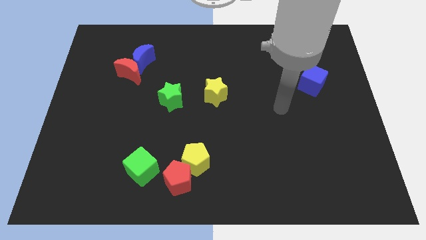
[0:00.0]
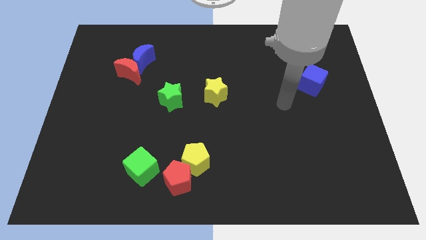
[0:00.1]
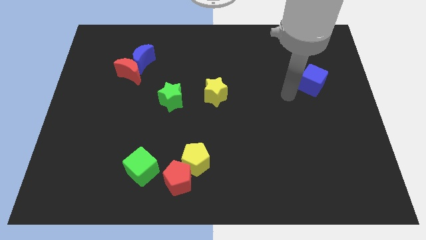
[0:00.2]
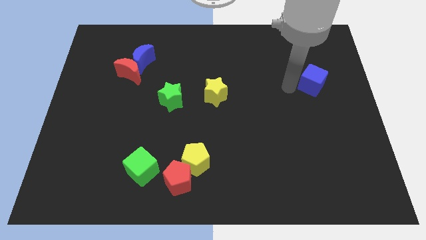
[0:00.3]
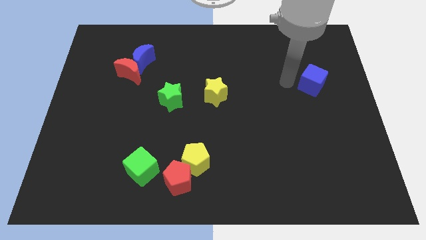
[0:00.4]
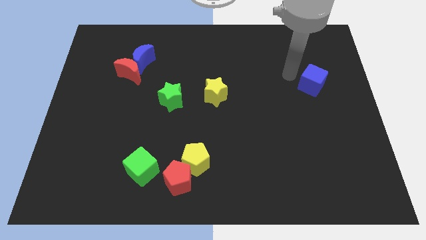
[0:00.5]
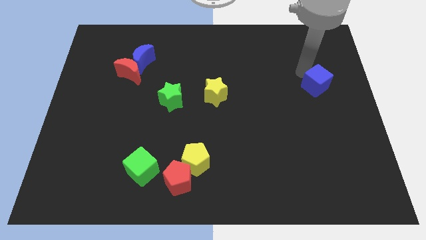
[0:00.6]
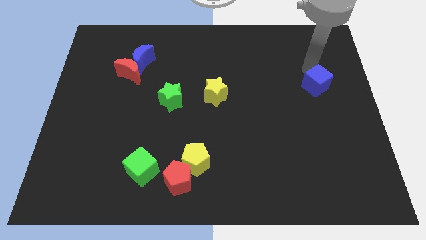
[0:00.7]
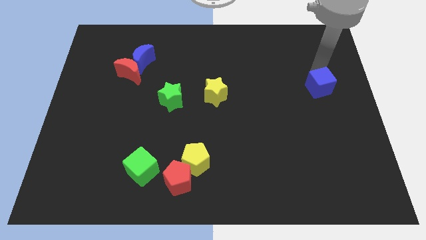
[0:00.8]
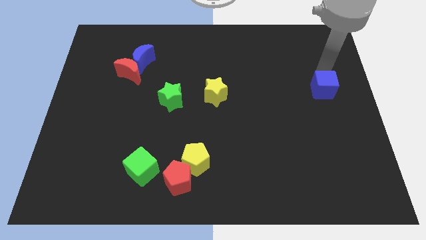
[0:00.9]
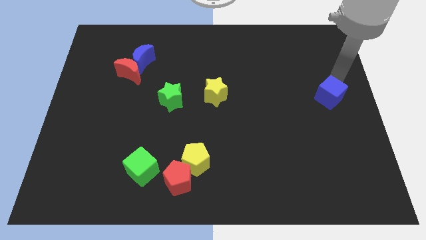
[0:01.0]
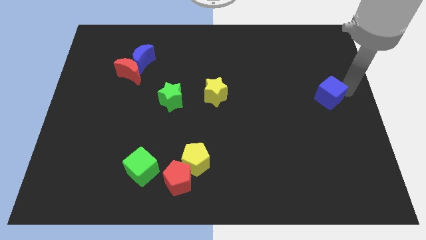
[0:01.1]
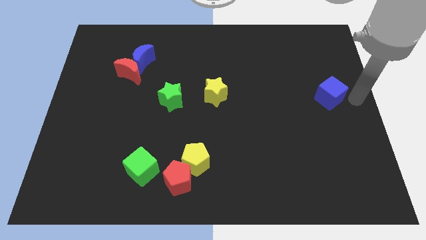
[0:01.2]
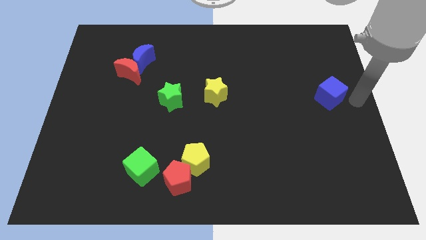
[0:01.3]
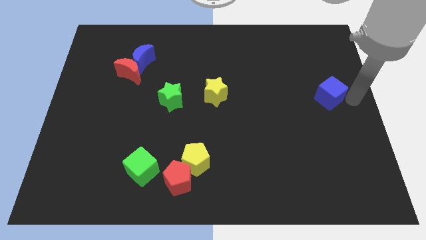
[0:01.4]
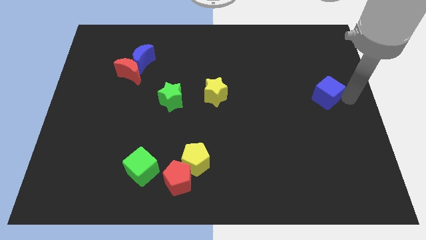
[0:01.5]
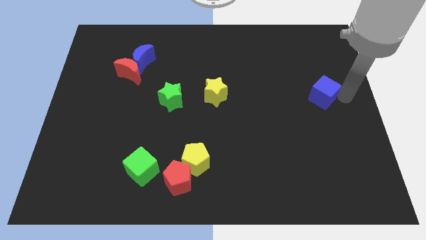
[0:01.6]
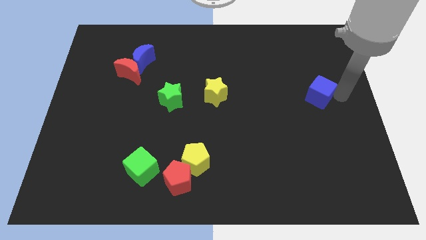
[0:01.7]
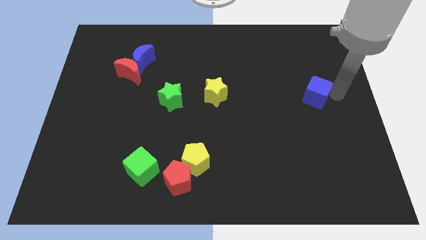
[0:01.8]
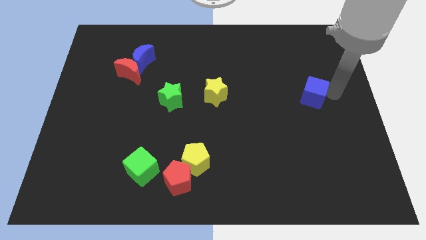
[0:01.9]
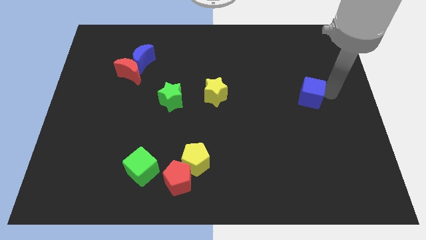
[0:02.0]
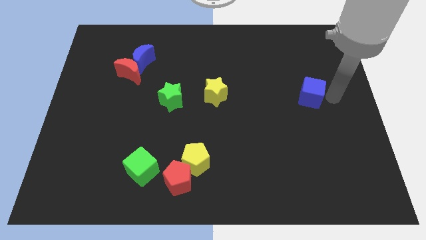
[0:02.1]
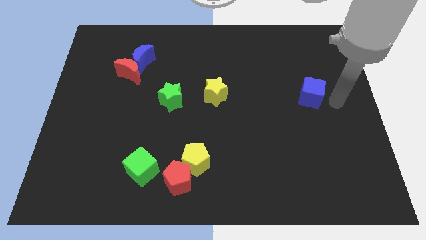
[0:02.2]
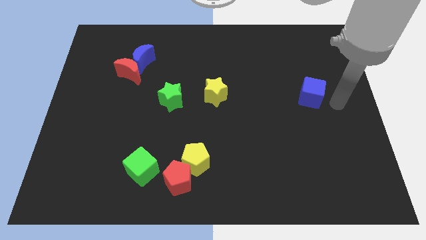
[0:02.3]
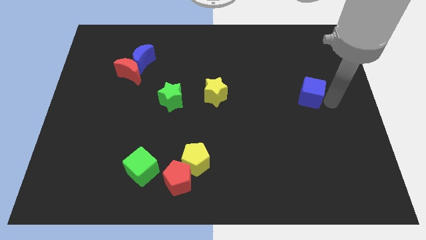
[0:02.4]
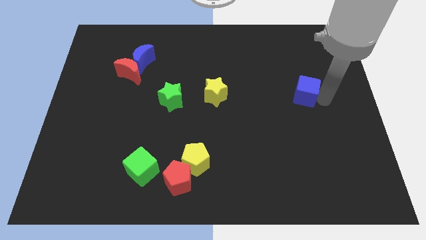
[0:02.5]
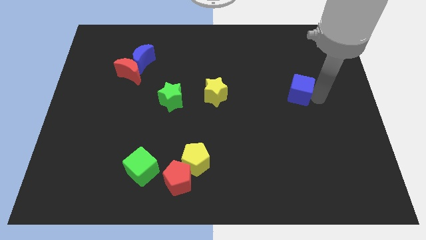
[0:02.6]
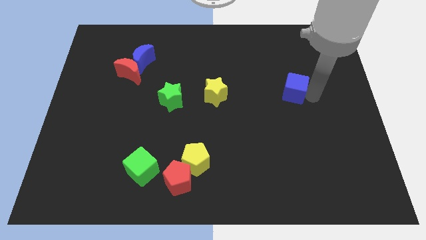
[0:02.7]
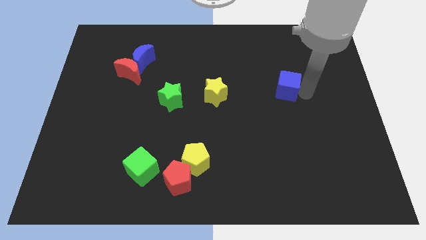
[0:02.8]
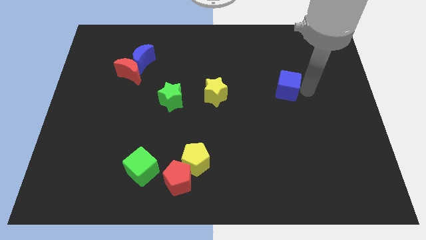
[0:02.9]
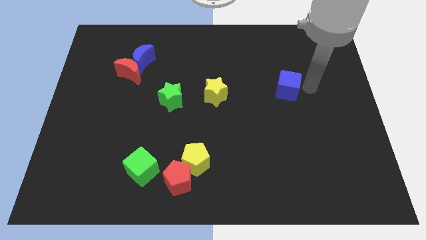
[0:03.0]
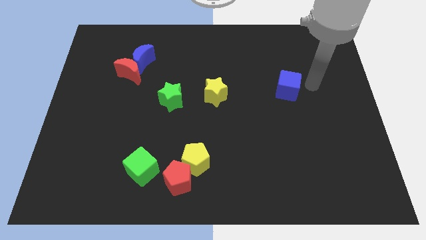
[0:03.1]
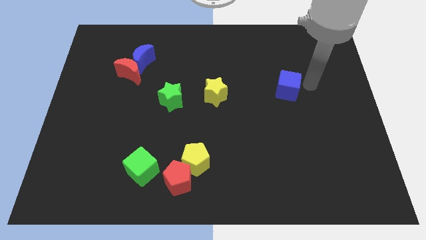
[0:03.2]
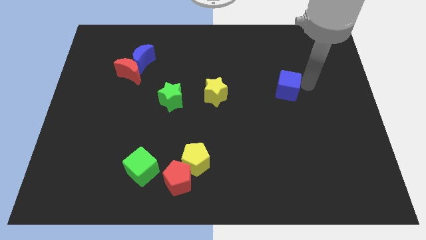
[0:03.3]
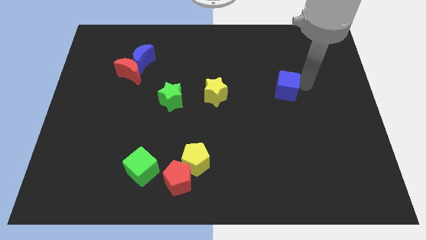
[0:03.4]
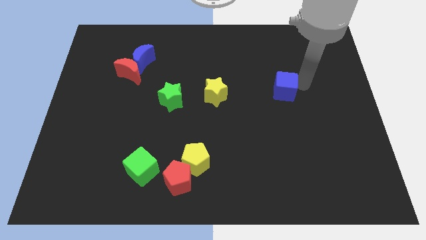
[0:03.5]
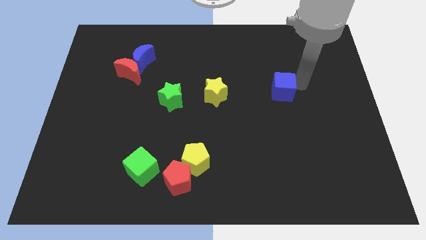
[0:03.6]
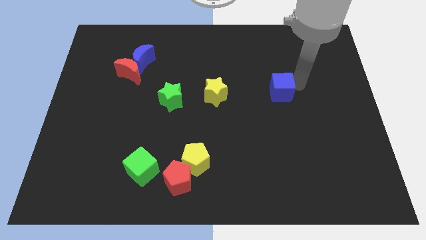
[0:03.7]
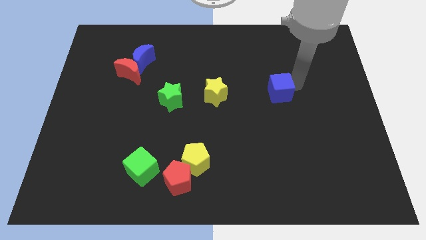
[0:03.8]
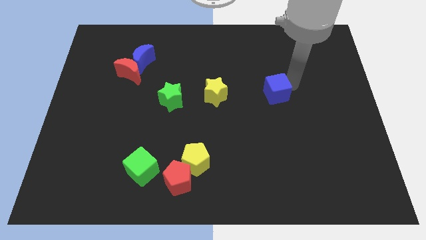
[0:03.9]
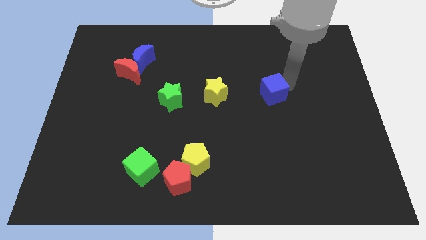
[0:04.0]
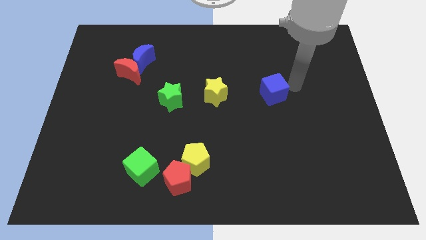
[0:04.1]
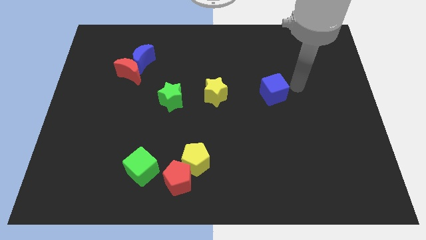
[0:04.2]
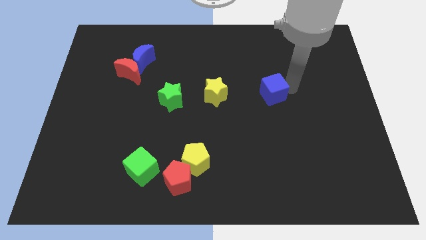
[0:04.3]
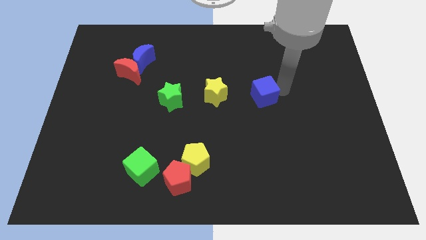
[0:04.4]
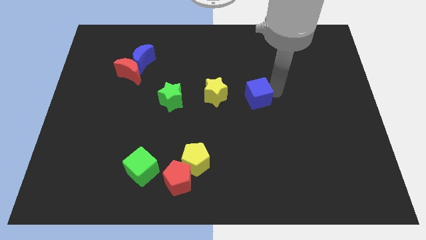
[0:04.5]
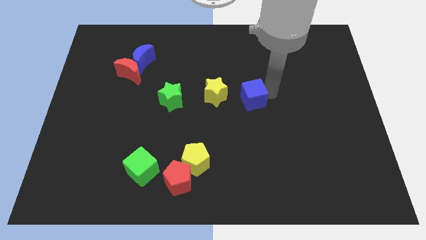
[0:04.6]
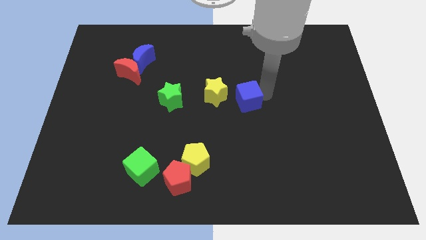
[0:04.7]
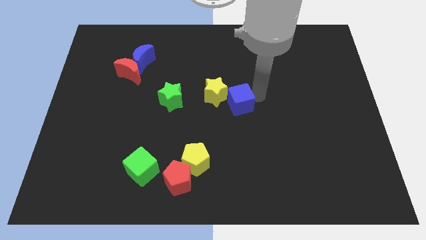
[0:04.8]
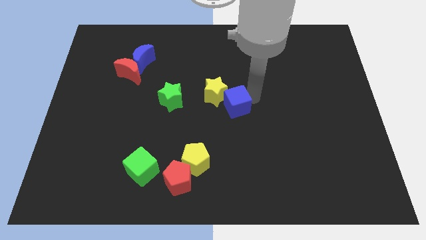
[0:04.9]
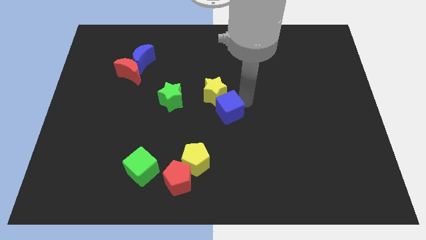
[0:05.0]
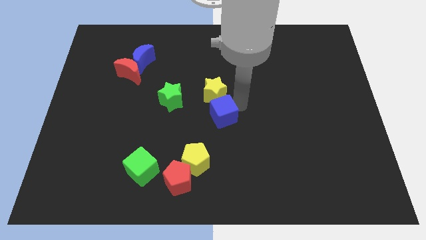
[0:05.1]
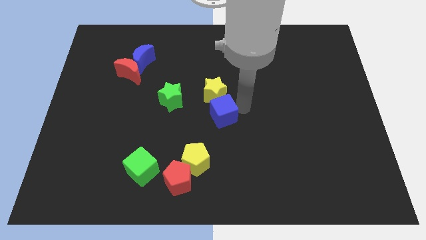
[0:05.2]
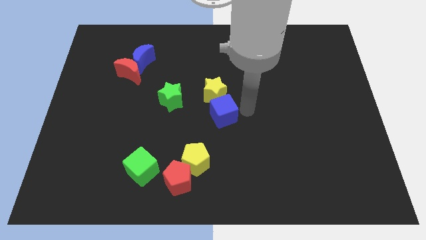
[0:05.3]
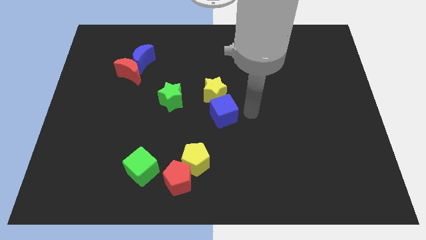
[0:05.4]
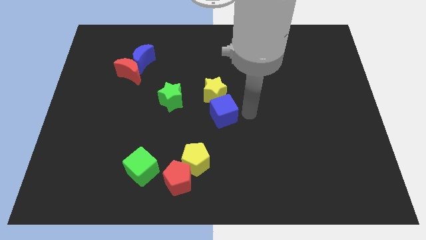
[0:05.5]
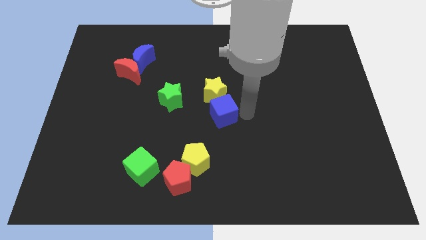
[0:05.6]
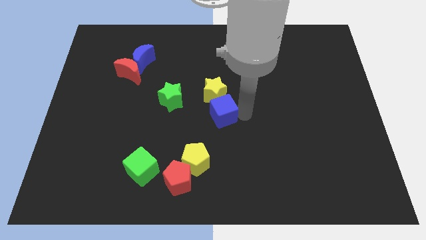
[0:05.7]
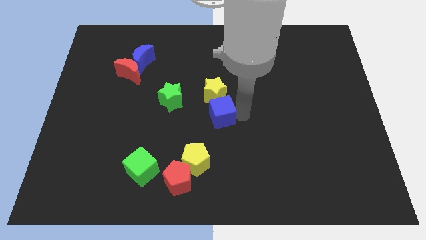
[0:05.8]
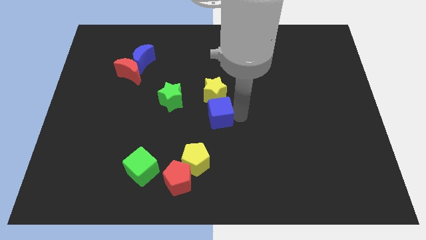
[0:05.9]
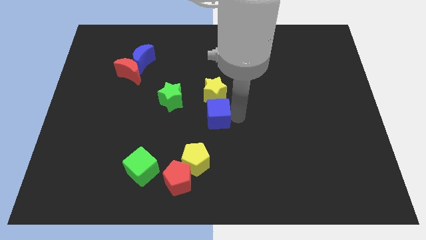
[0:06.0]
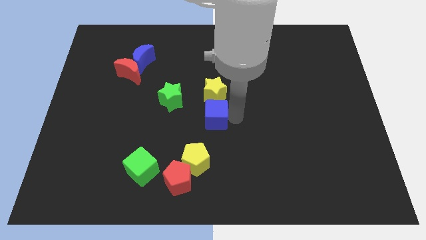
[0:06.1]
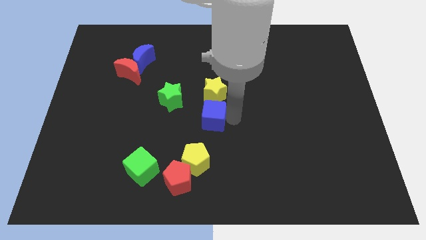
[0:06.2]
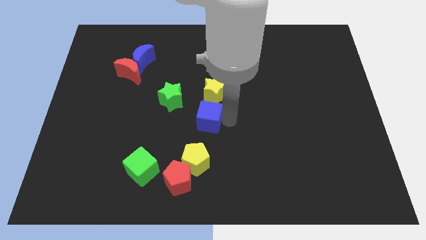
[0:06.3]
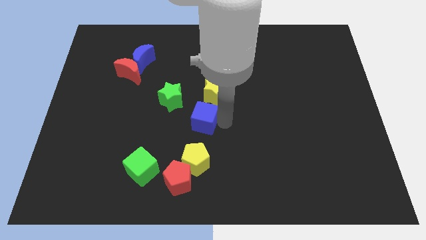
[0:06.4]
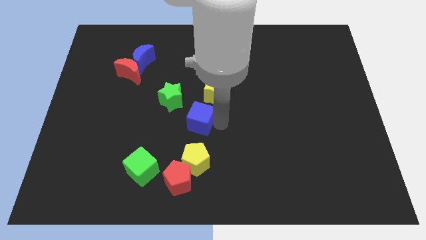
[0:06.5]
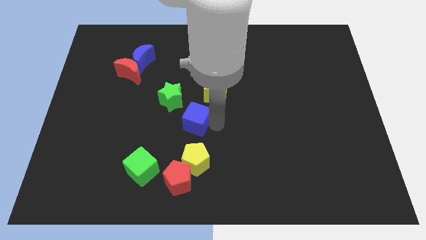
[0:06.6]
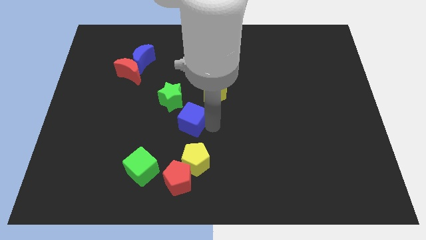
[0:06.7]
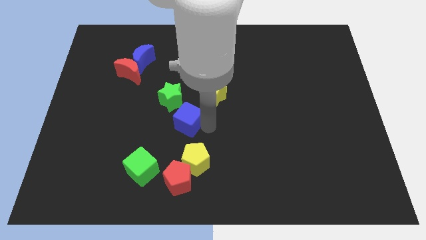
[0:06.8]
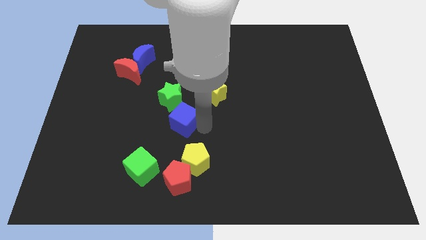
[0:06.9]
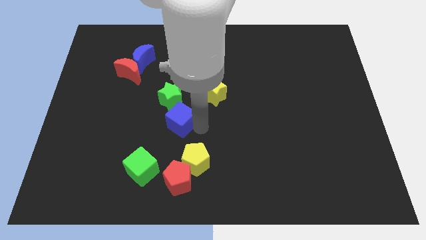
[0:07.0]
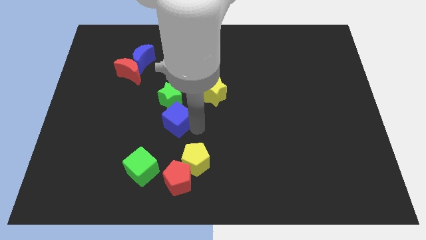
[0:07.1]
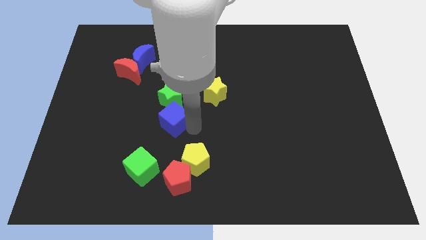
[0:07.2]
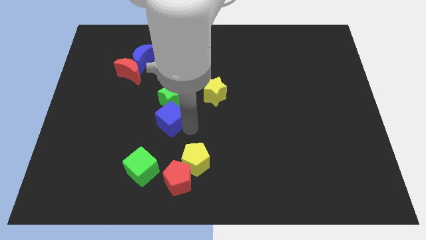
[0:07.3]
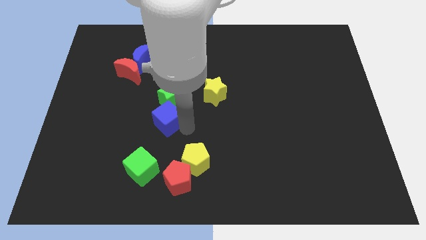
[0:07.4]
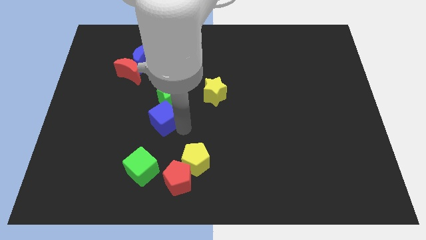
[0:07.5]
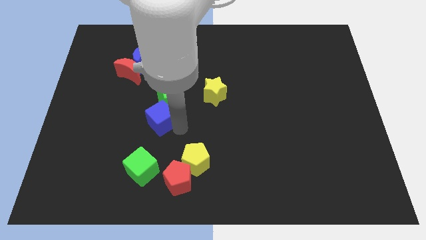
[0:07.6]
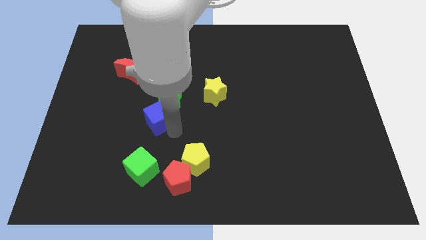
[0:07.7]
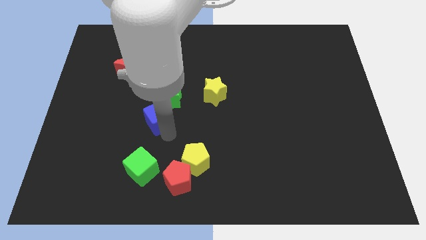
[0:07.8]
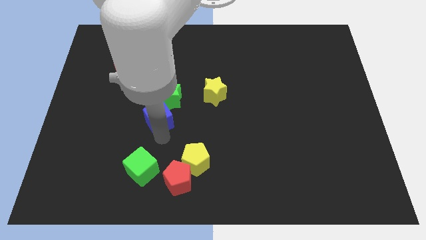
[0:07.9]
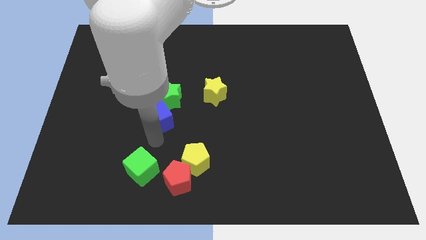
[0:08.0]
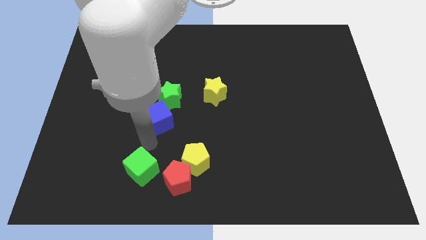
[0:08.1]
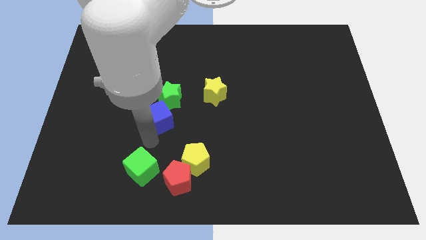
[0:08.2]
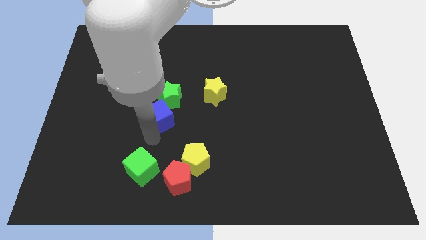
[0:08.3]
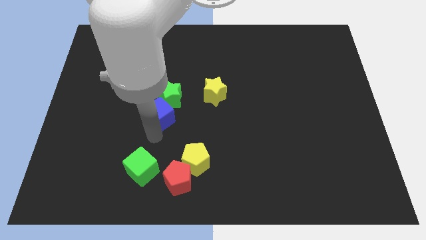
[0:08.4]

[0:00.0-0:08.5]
slide the blue cube close to the green star
